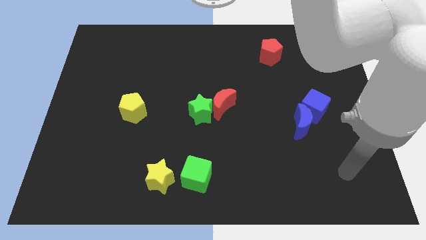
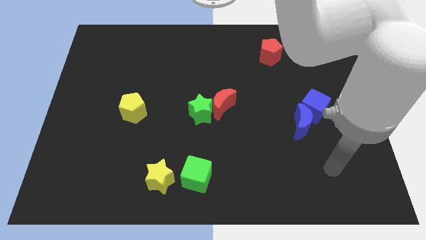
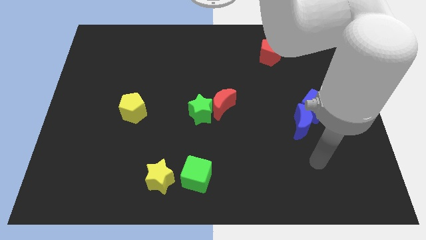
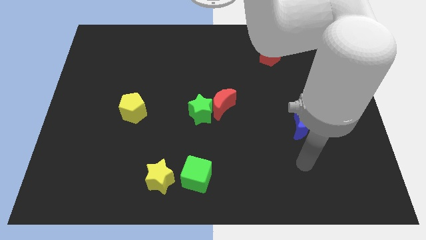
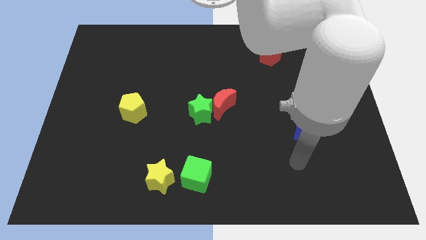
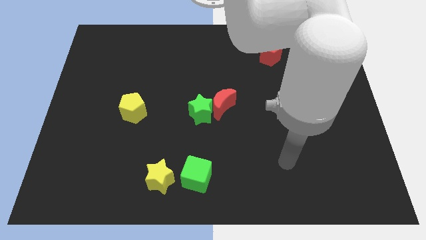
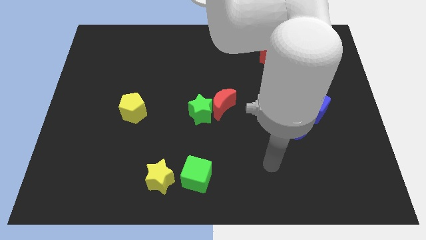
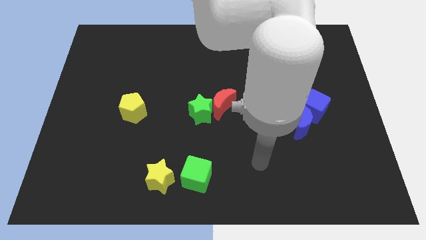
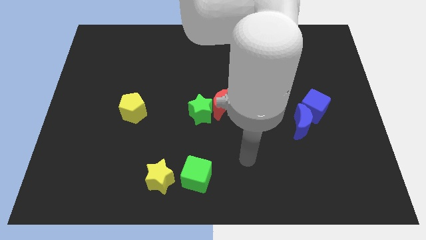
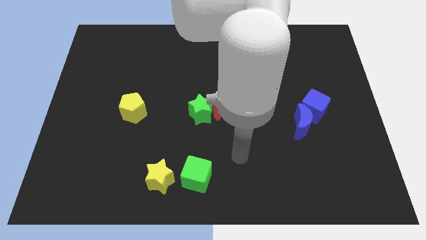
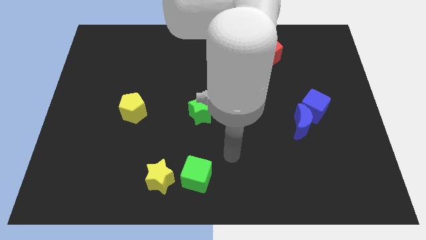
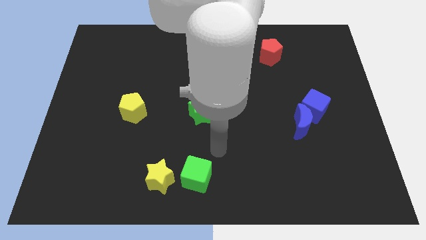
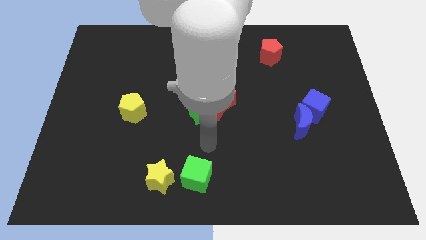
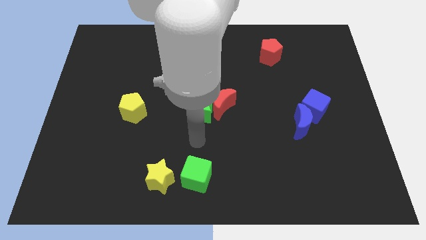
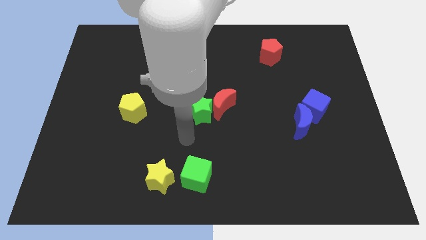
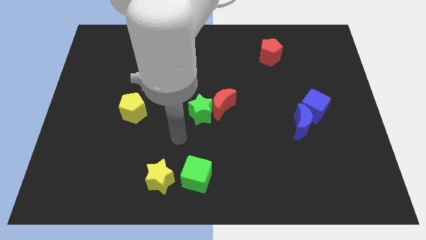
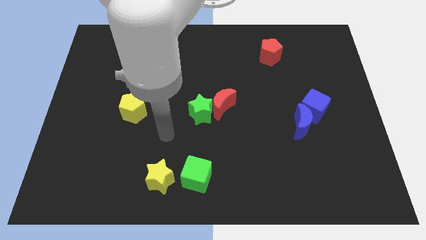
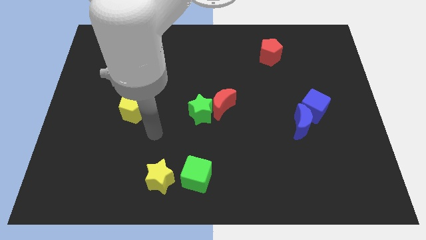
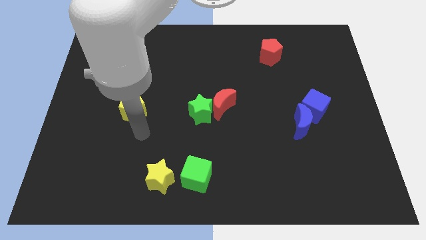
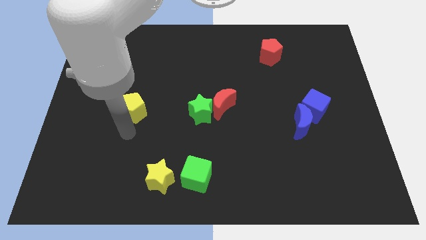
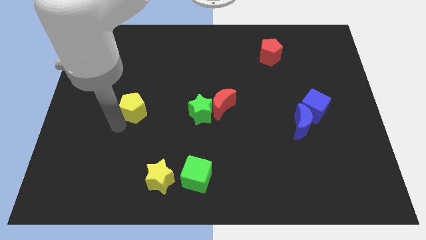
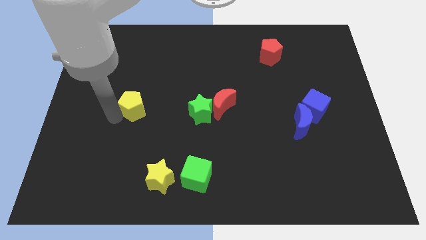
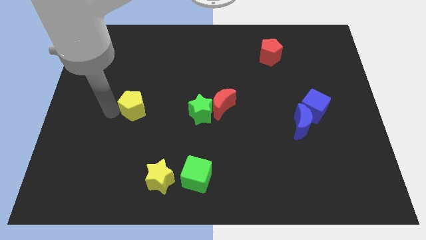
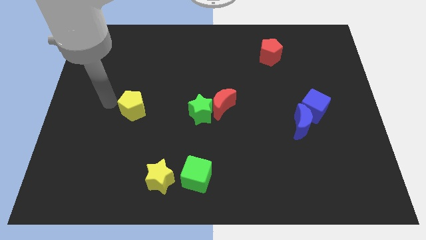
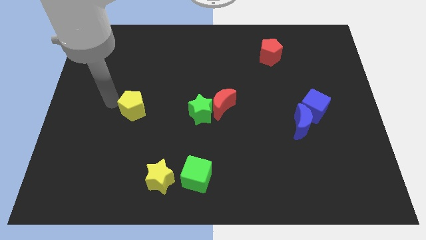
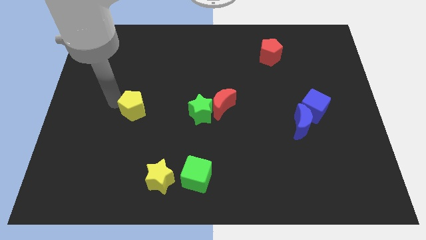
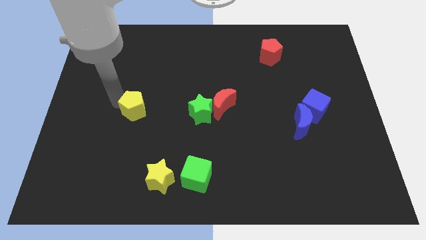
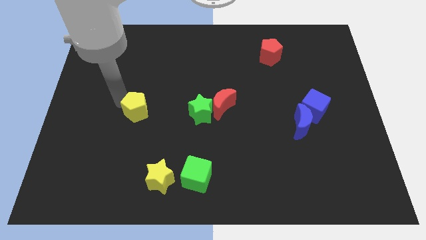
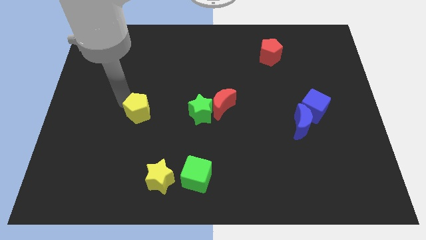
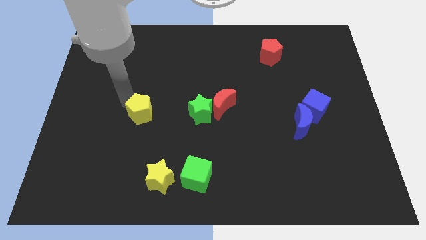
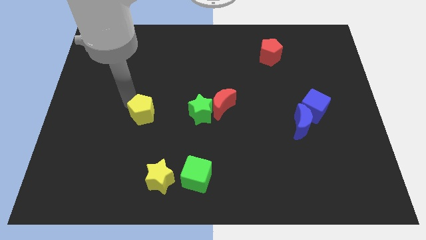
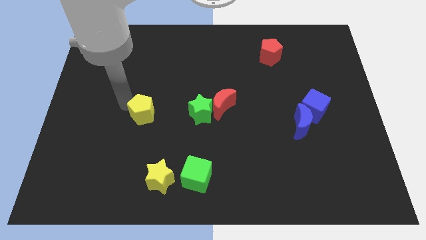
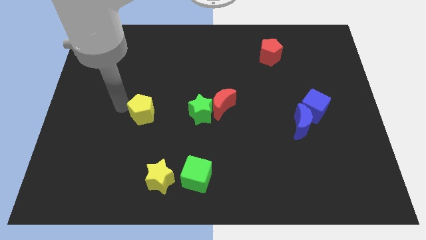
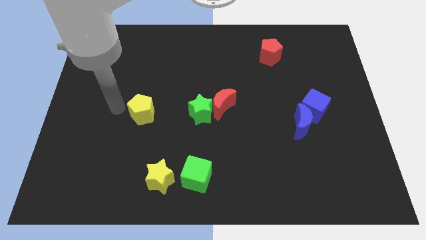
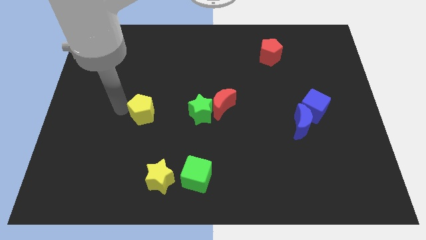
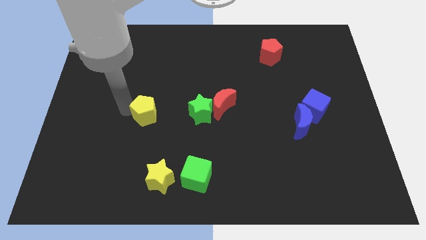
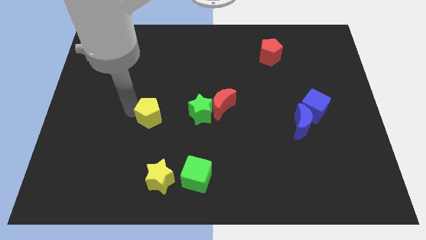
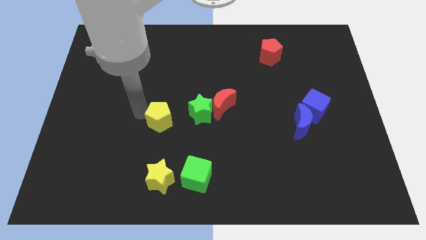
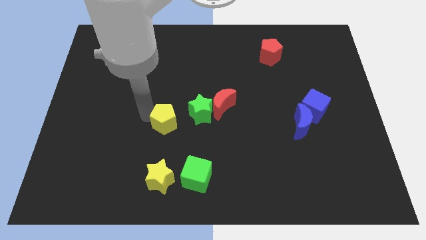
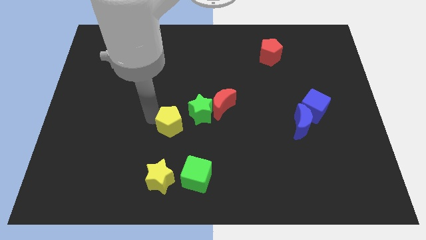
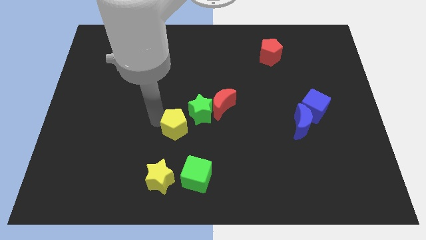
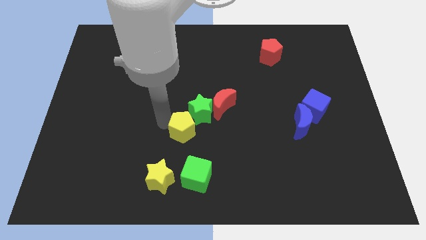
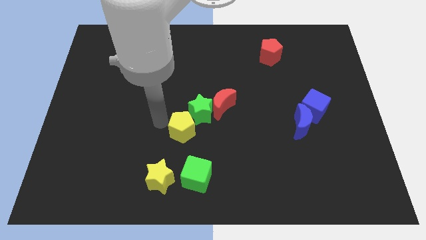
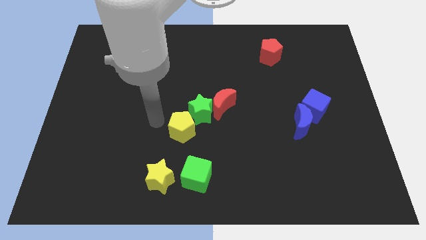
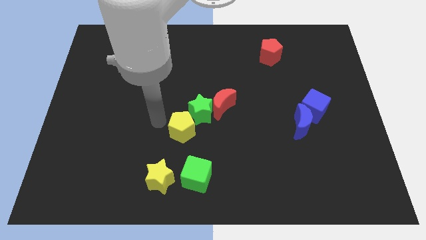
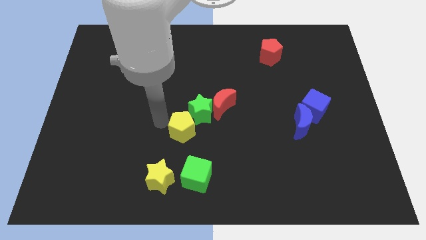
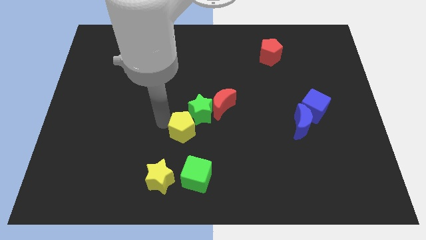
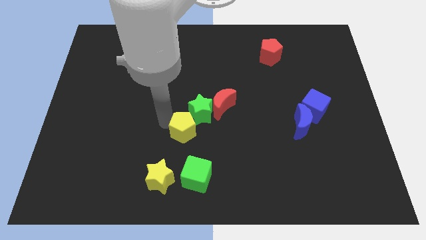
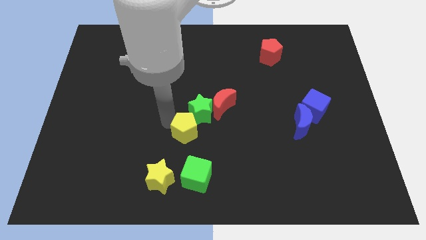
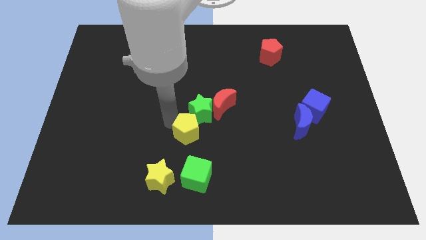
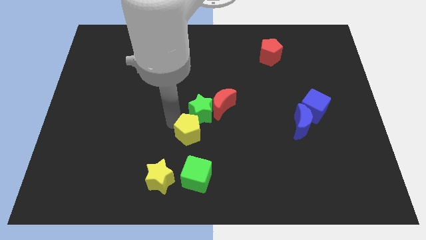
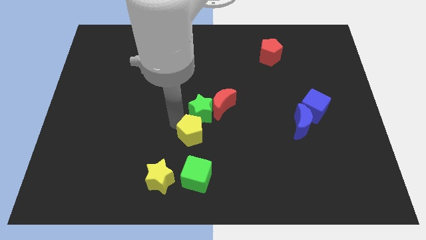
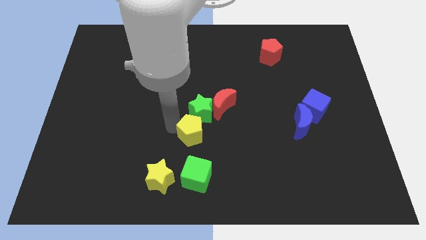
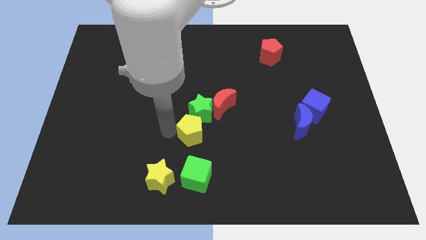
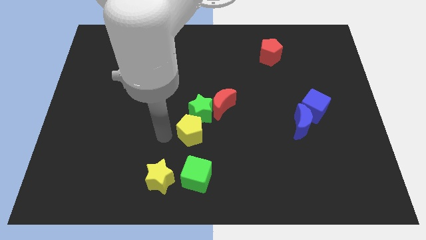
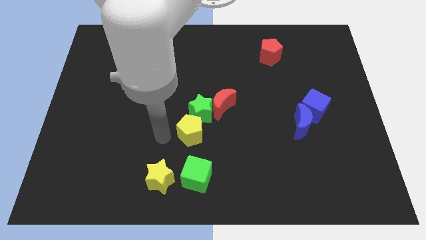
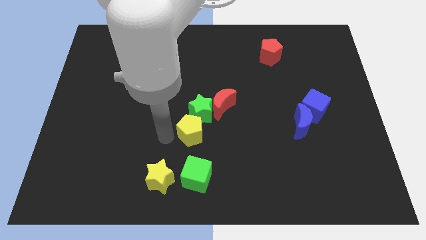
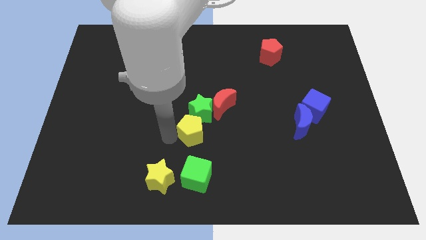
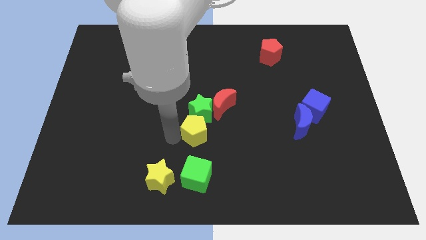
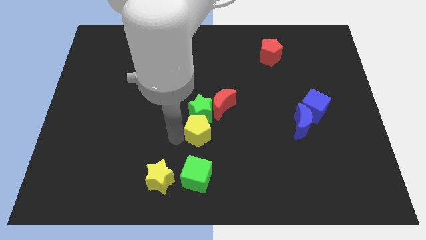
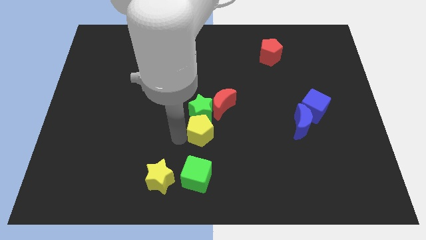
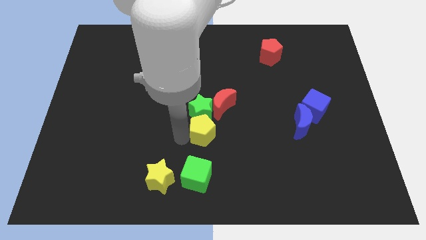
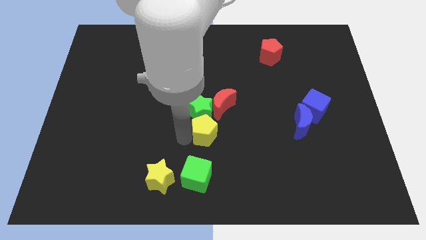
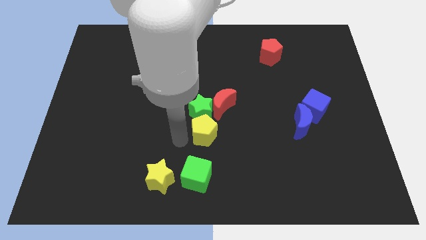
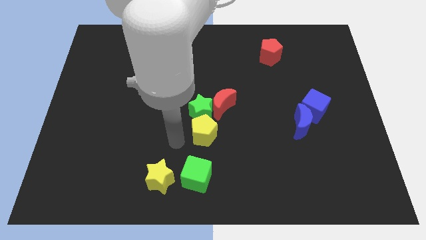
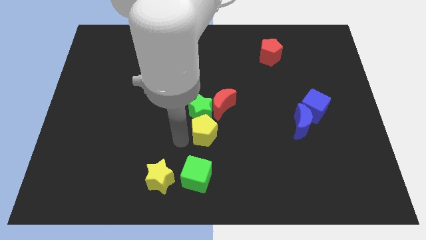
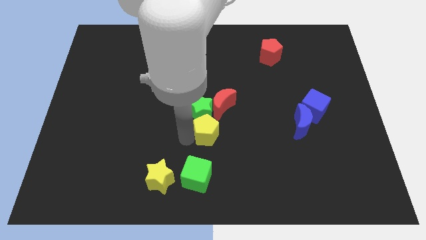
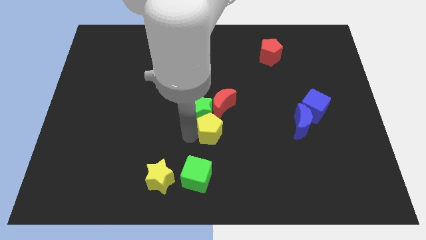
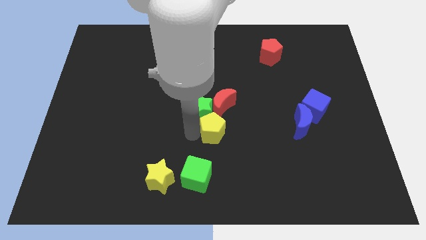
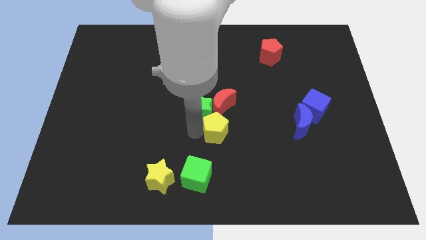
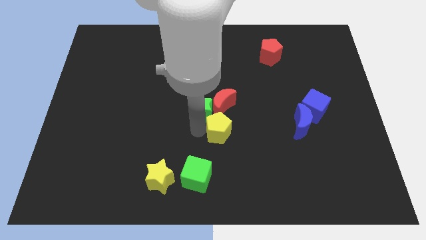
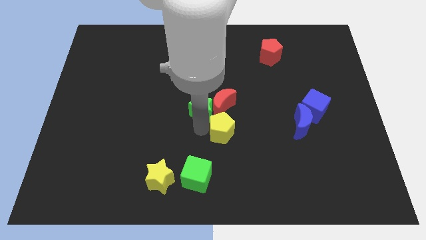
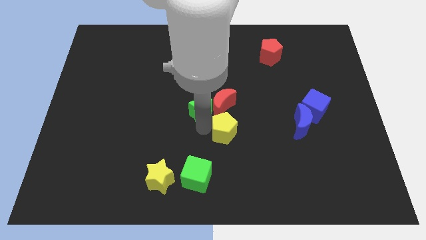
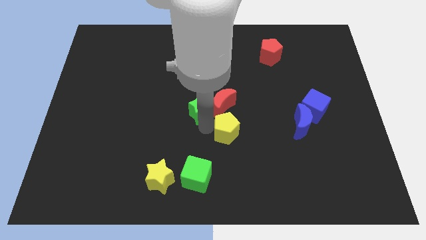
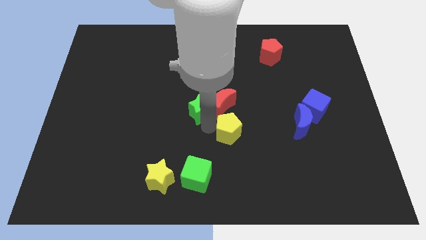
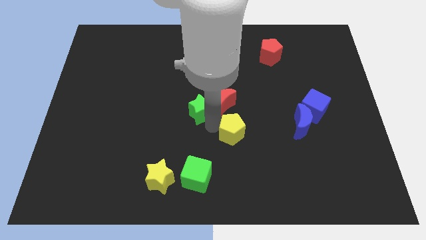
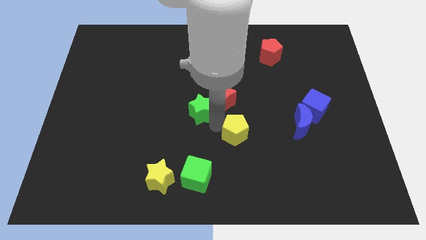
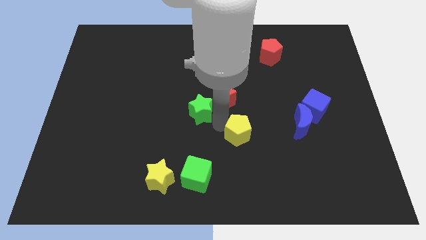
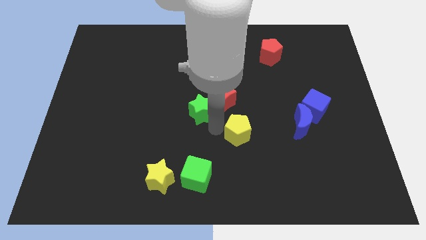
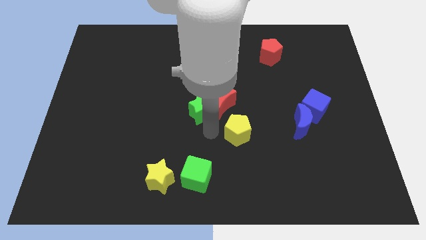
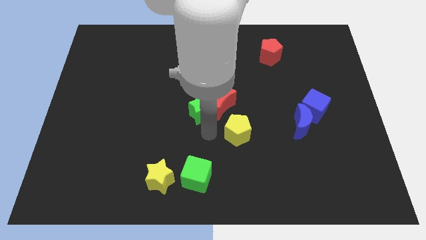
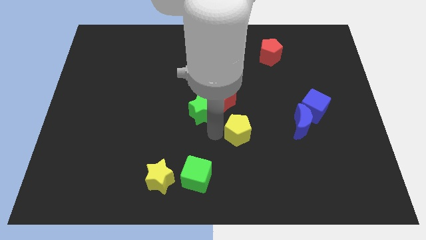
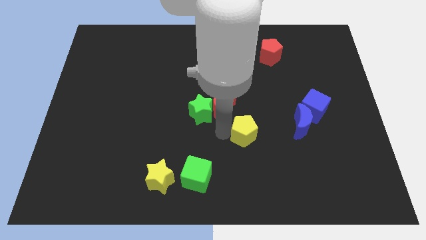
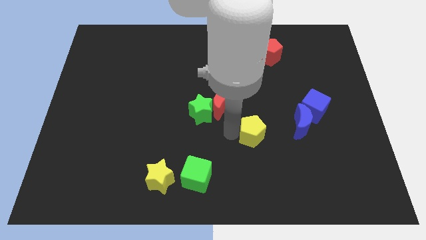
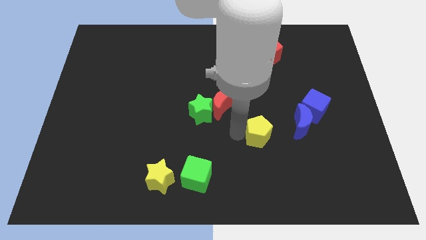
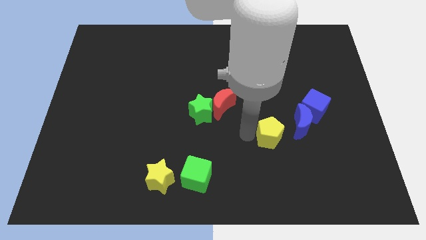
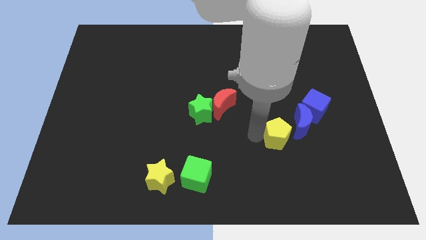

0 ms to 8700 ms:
slide the yellow pentagon diagonally down and to the left of the blue cube
